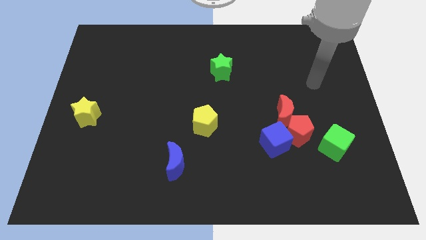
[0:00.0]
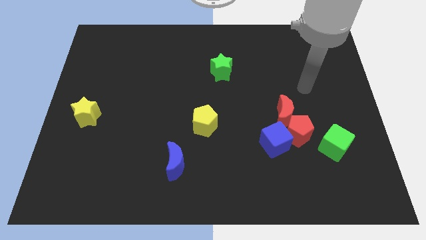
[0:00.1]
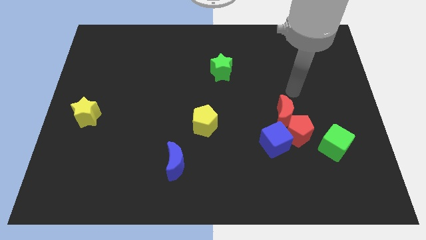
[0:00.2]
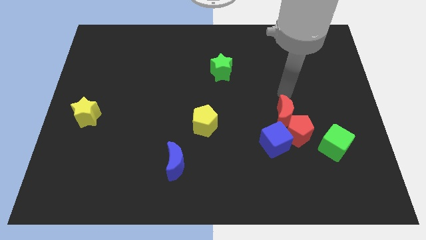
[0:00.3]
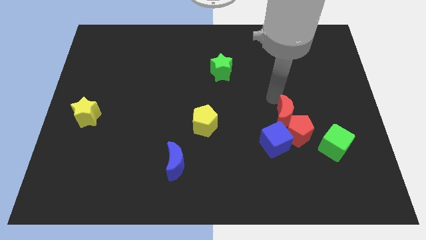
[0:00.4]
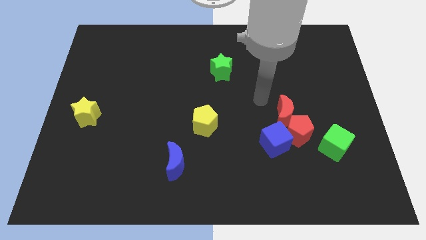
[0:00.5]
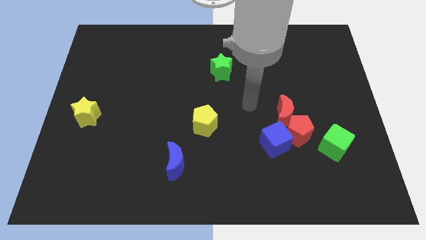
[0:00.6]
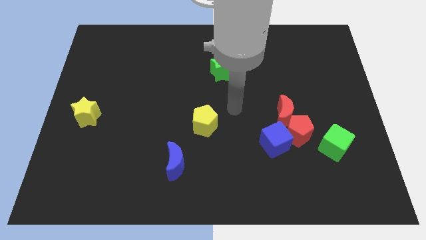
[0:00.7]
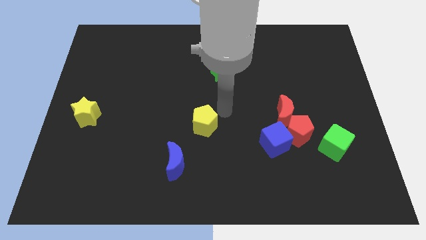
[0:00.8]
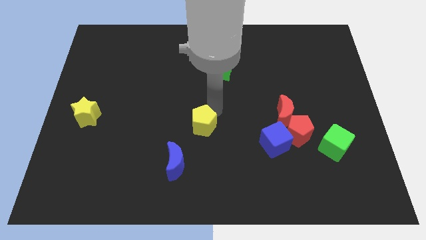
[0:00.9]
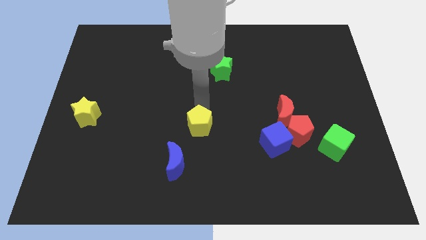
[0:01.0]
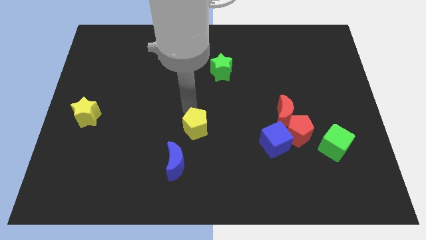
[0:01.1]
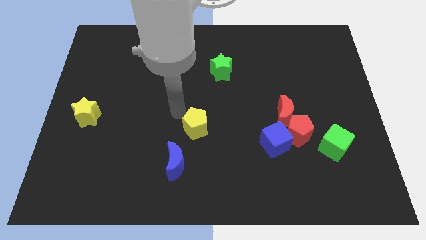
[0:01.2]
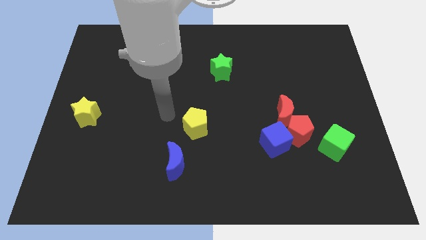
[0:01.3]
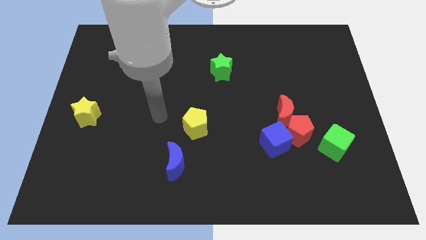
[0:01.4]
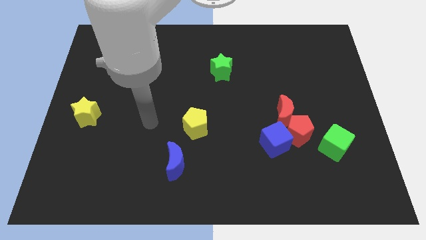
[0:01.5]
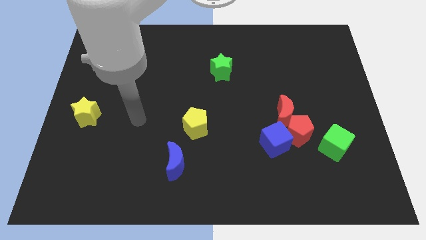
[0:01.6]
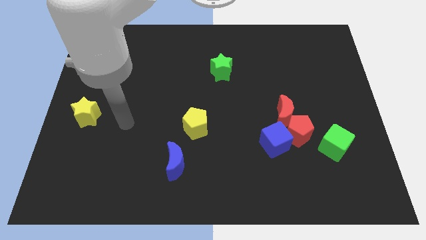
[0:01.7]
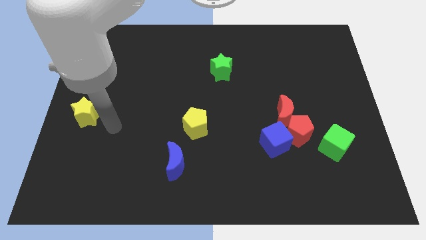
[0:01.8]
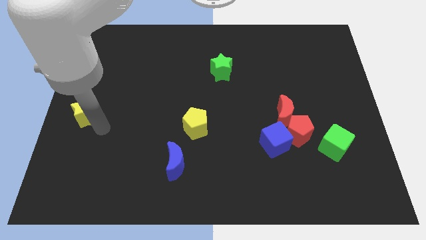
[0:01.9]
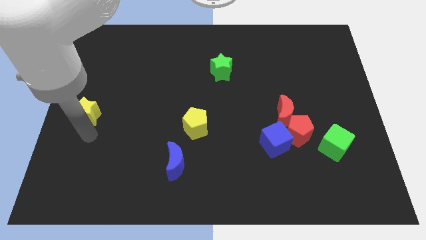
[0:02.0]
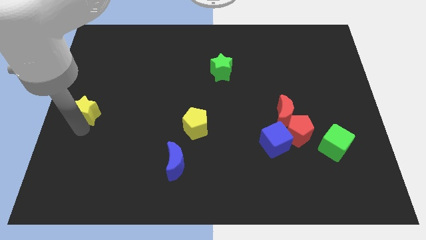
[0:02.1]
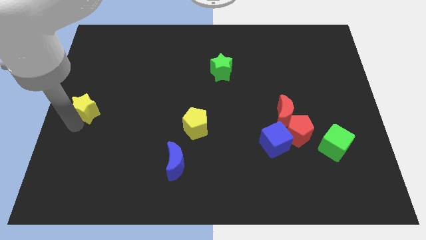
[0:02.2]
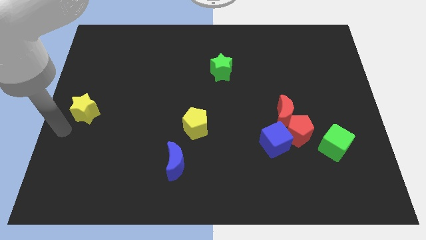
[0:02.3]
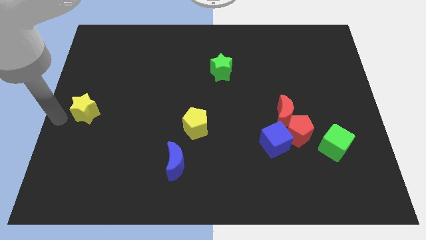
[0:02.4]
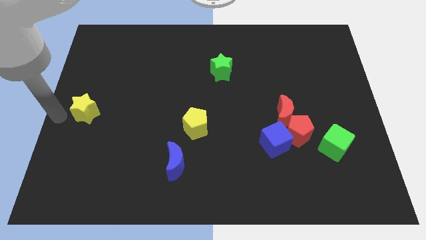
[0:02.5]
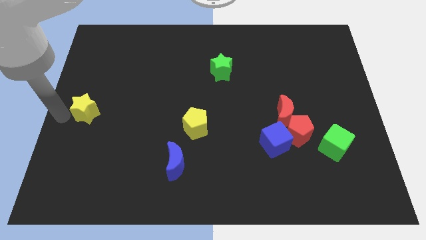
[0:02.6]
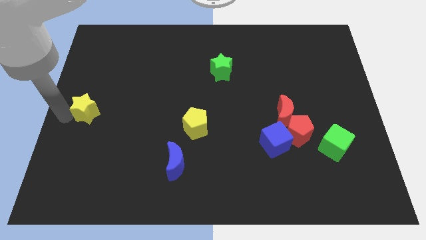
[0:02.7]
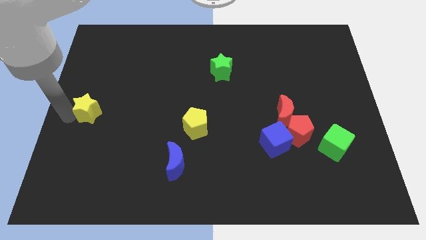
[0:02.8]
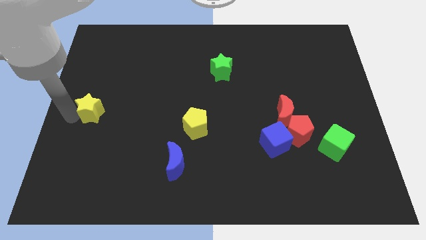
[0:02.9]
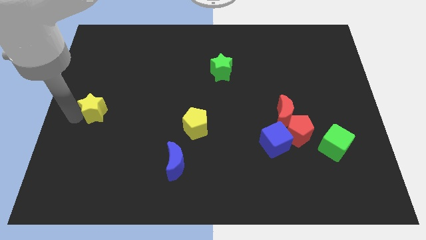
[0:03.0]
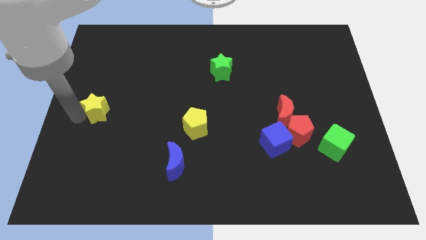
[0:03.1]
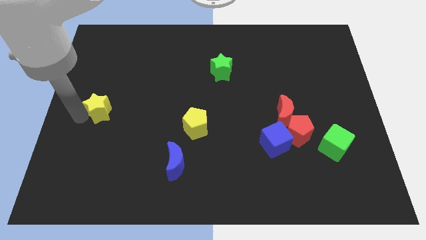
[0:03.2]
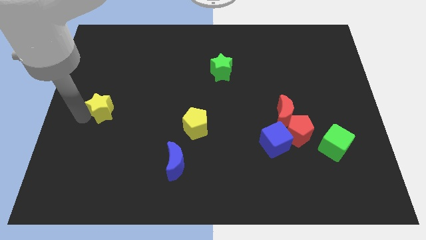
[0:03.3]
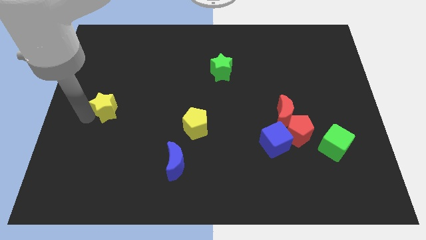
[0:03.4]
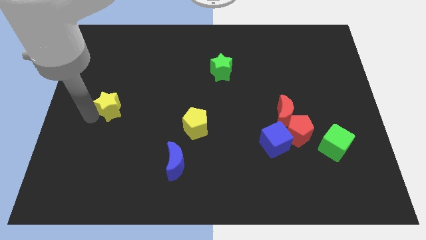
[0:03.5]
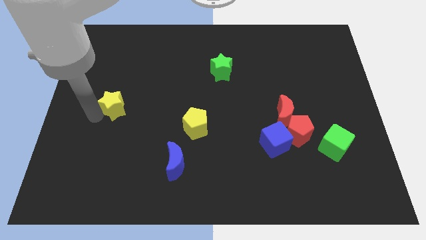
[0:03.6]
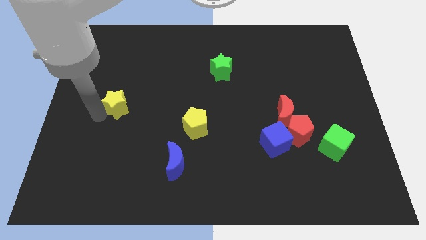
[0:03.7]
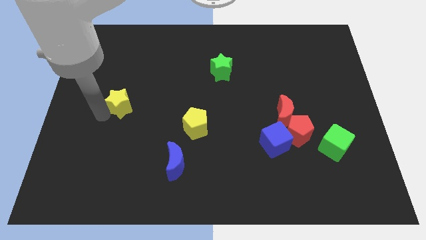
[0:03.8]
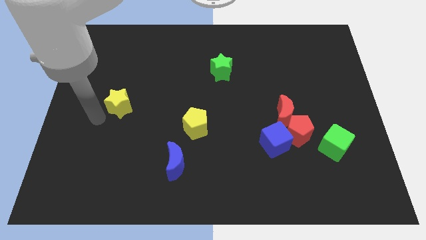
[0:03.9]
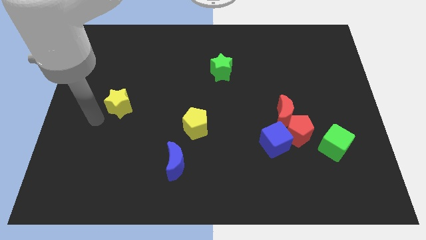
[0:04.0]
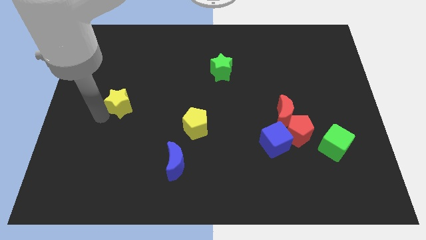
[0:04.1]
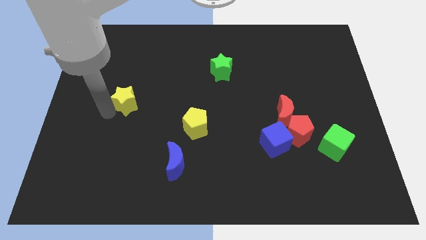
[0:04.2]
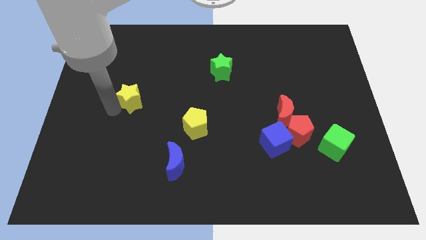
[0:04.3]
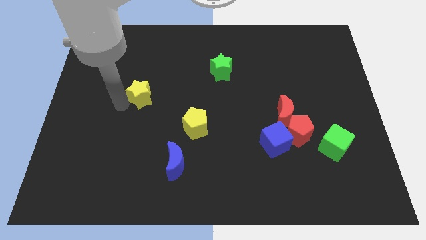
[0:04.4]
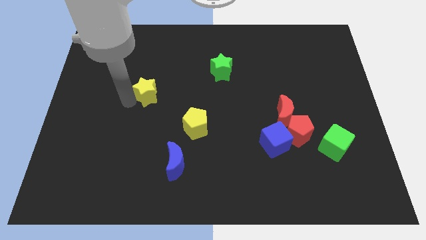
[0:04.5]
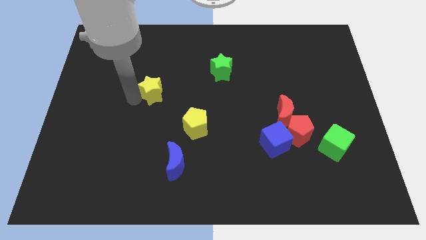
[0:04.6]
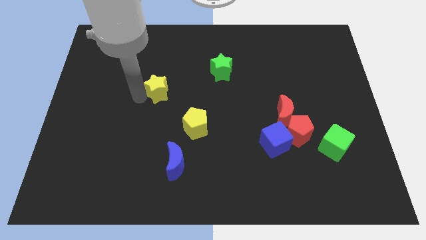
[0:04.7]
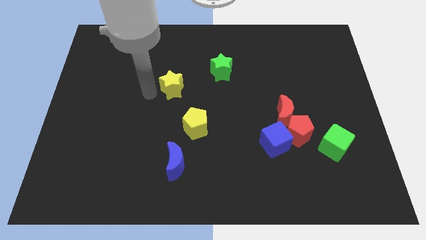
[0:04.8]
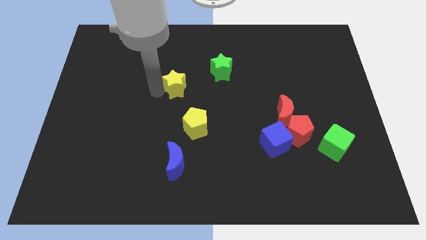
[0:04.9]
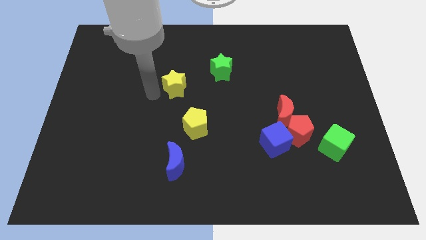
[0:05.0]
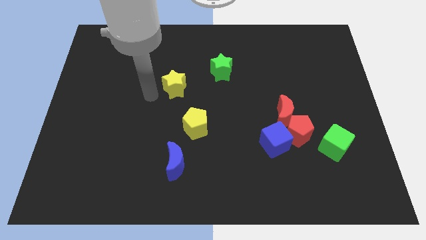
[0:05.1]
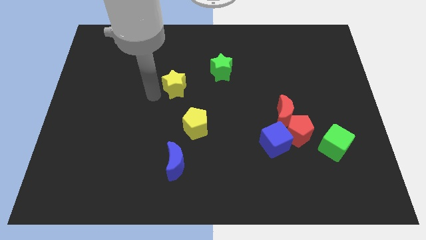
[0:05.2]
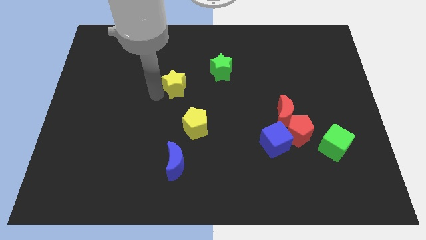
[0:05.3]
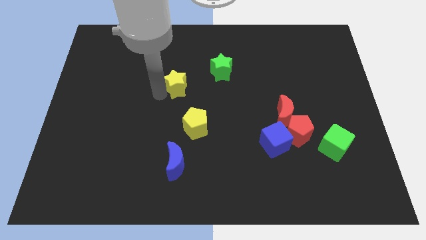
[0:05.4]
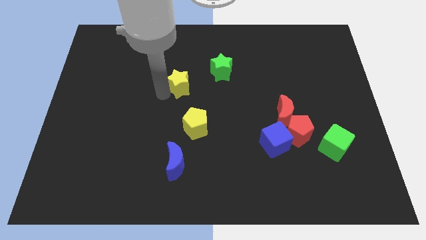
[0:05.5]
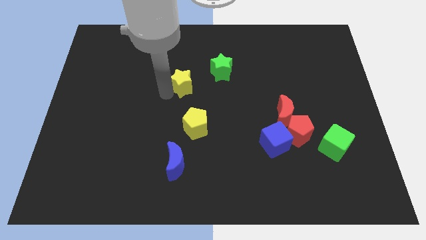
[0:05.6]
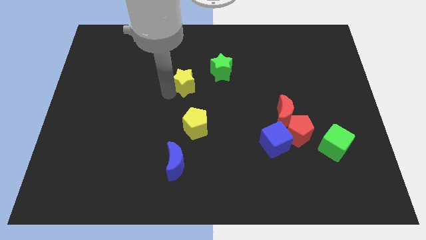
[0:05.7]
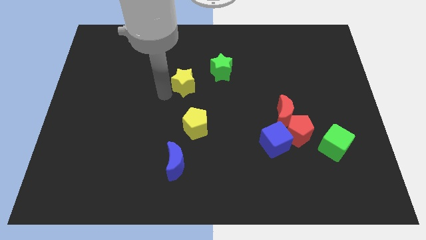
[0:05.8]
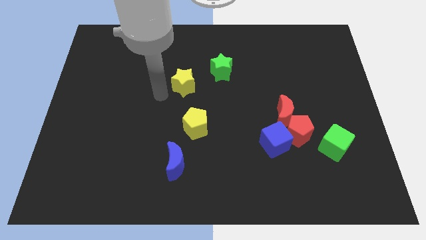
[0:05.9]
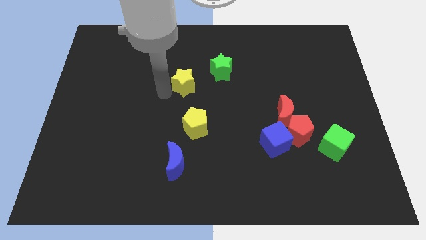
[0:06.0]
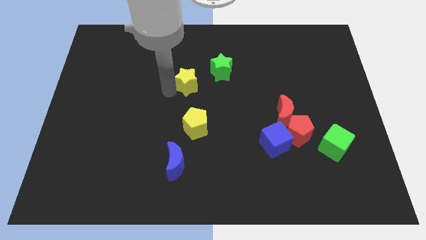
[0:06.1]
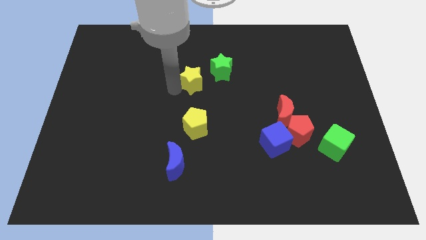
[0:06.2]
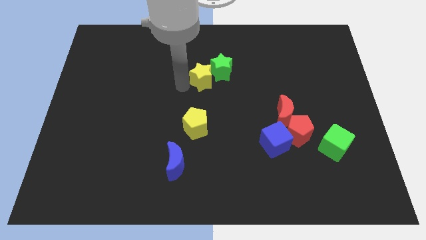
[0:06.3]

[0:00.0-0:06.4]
push the yellow star towards the green star

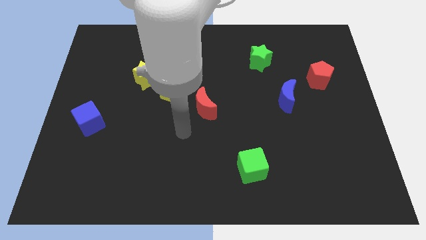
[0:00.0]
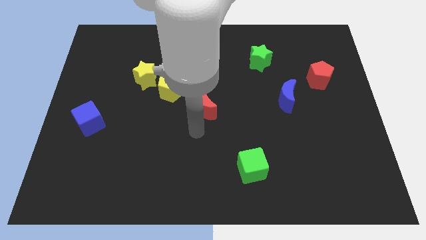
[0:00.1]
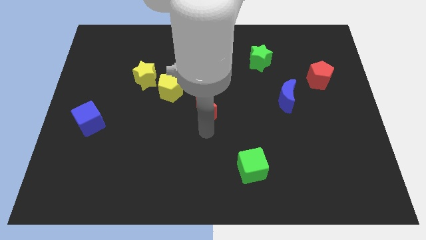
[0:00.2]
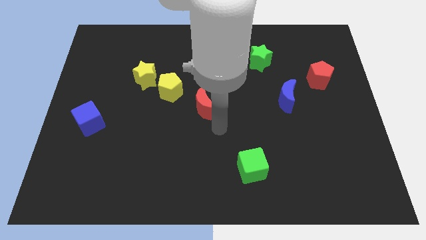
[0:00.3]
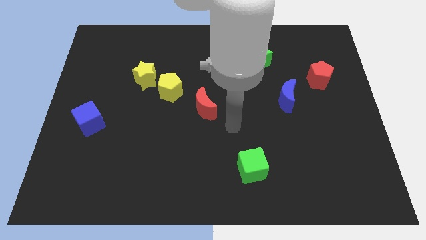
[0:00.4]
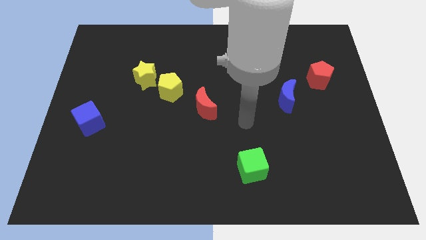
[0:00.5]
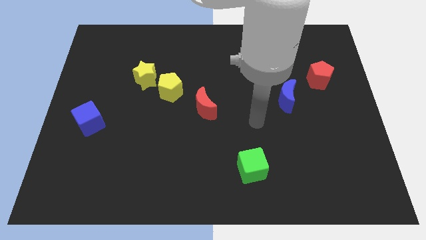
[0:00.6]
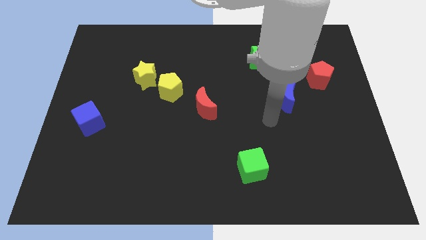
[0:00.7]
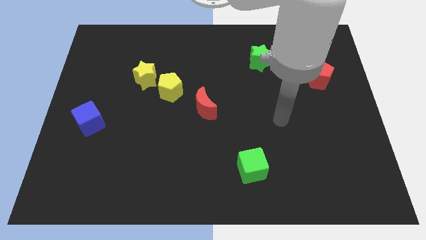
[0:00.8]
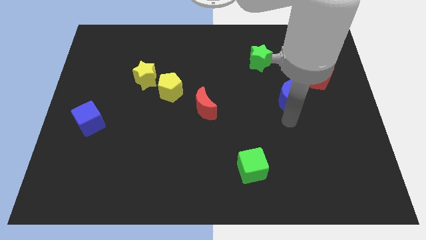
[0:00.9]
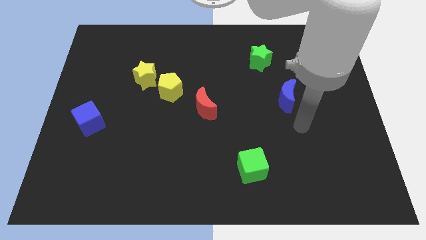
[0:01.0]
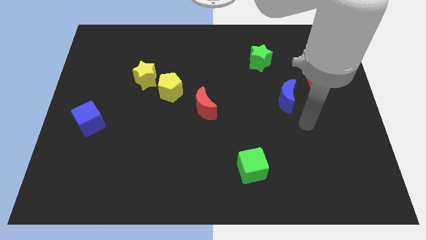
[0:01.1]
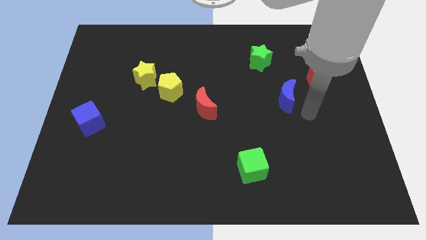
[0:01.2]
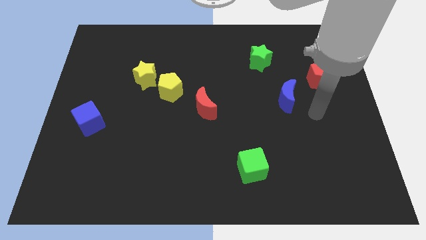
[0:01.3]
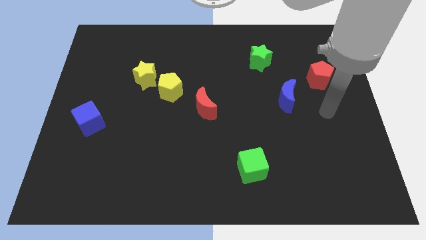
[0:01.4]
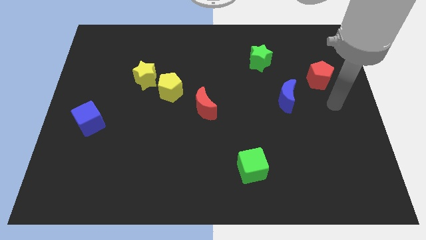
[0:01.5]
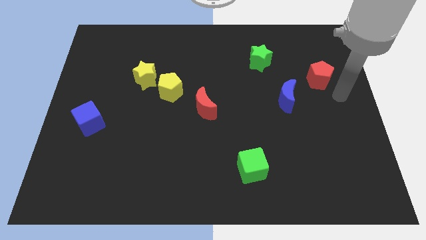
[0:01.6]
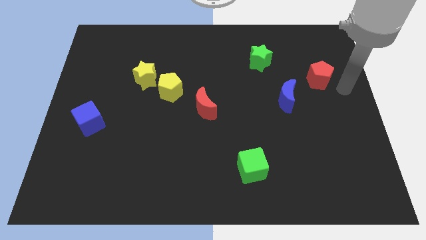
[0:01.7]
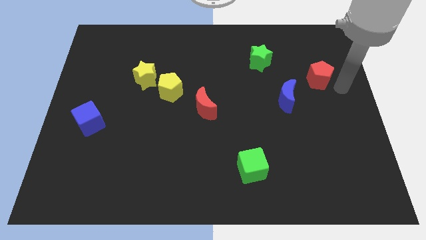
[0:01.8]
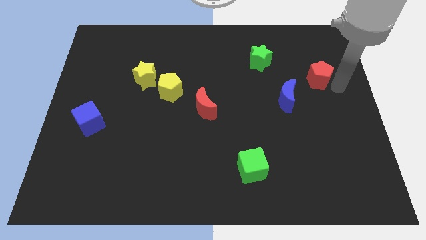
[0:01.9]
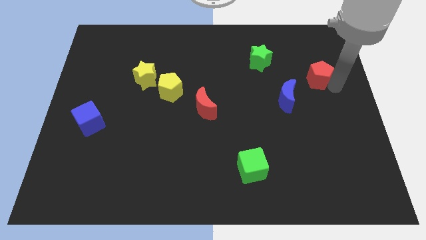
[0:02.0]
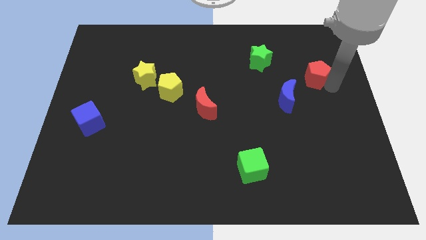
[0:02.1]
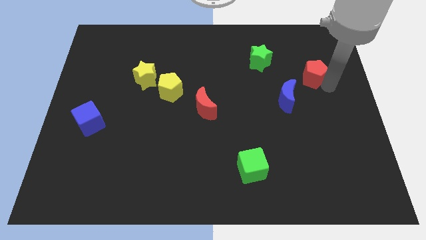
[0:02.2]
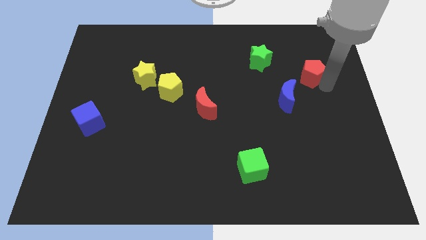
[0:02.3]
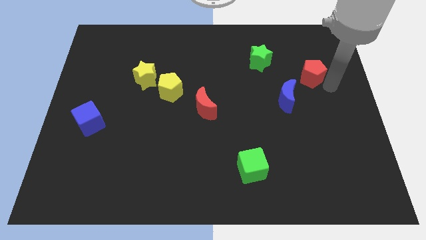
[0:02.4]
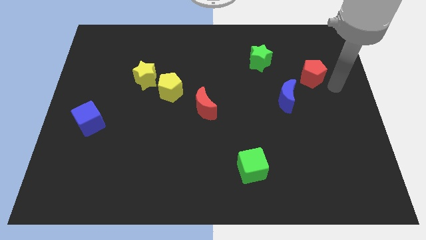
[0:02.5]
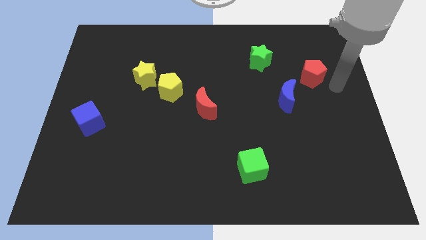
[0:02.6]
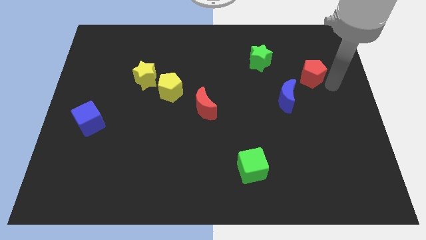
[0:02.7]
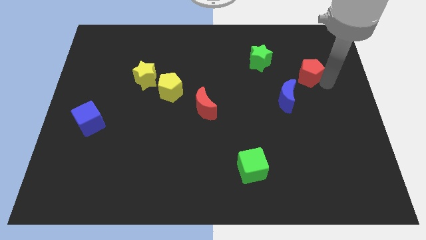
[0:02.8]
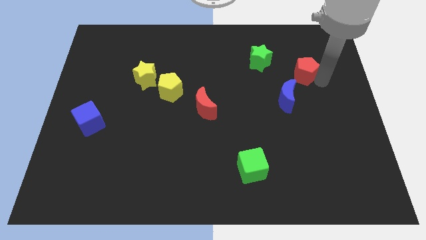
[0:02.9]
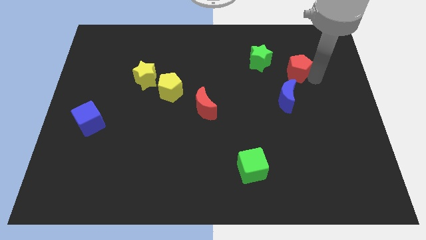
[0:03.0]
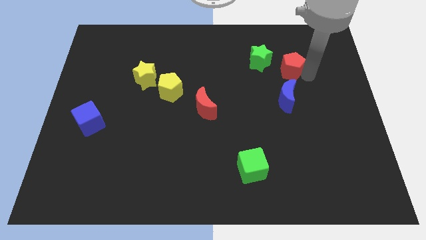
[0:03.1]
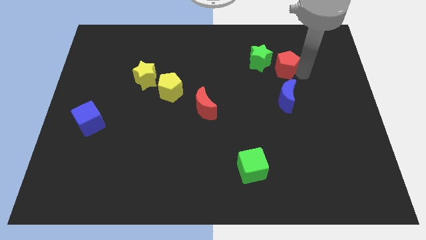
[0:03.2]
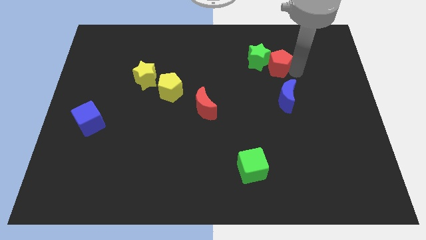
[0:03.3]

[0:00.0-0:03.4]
slide the red pentagon towards the green star
